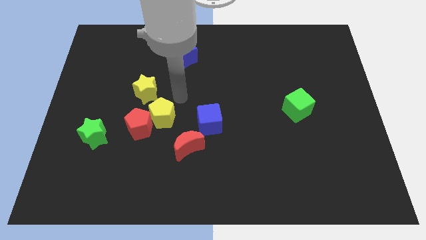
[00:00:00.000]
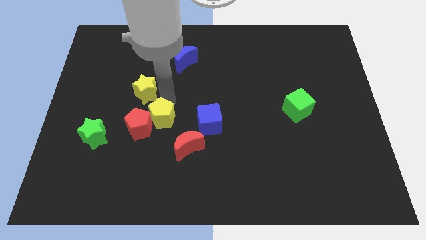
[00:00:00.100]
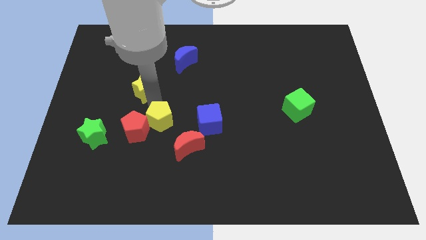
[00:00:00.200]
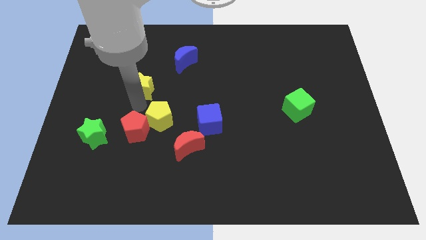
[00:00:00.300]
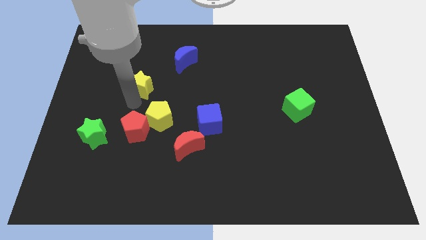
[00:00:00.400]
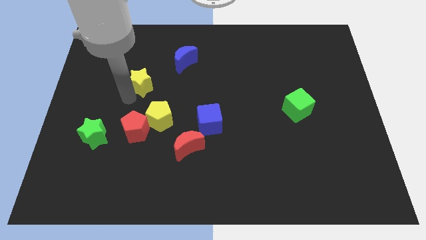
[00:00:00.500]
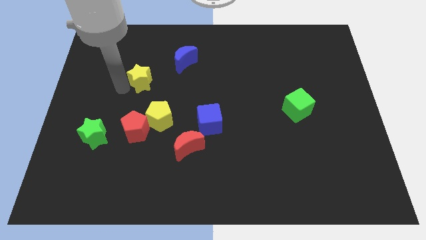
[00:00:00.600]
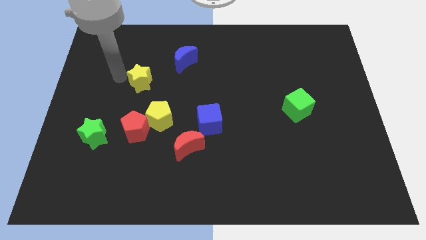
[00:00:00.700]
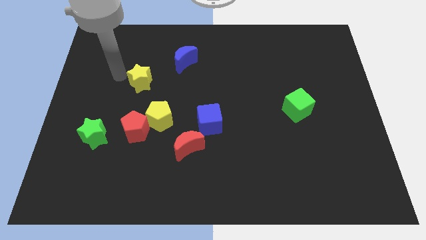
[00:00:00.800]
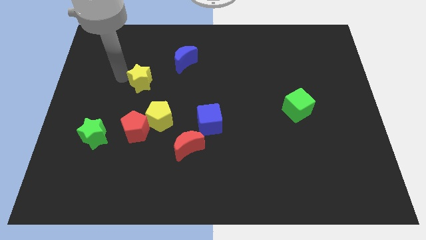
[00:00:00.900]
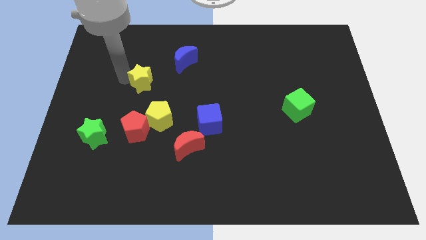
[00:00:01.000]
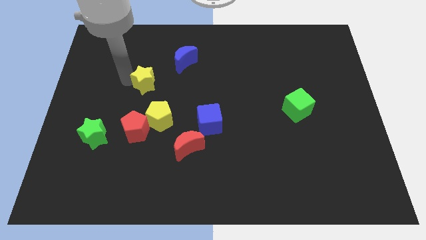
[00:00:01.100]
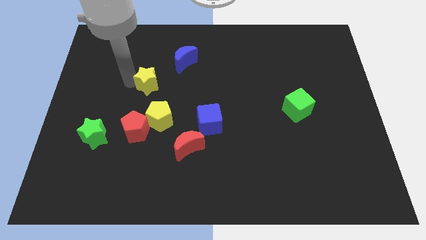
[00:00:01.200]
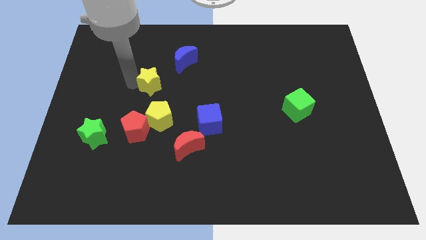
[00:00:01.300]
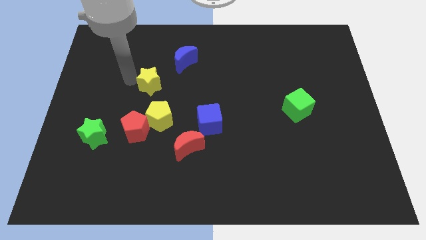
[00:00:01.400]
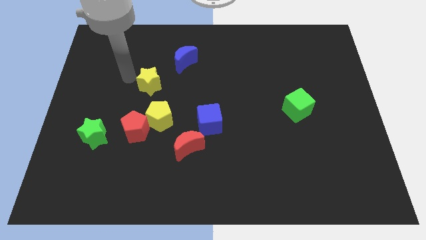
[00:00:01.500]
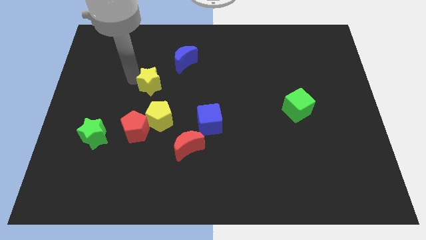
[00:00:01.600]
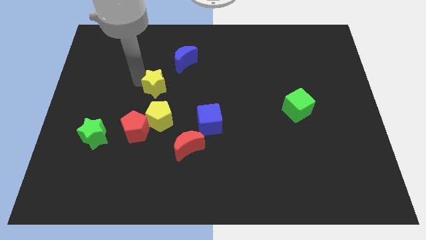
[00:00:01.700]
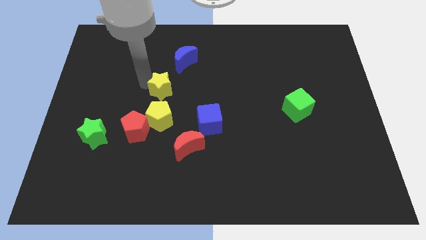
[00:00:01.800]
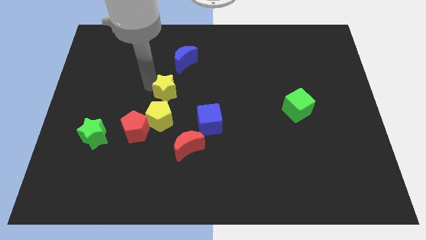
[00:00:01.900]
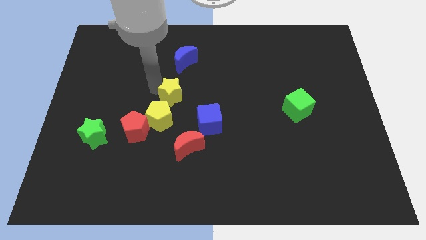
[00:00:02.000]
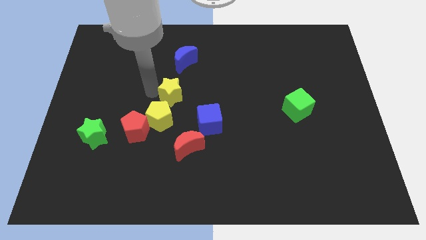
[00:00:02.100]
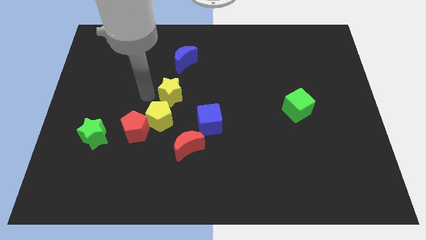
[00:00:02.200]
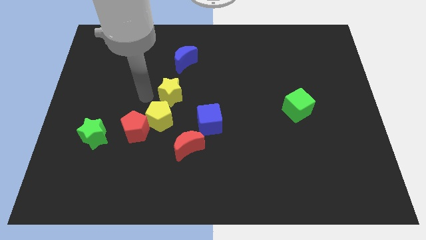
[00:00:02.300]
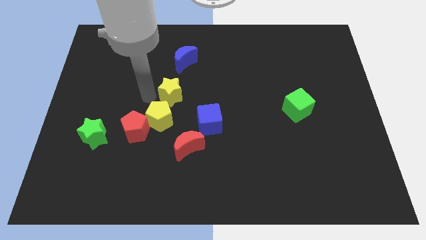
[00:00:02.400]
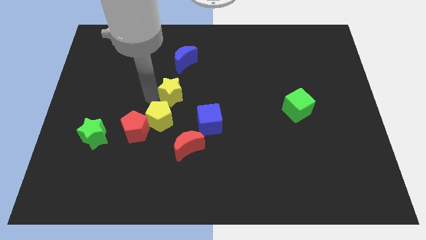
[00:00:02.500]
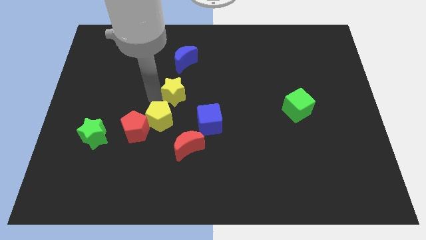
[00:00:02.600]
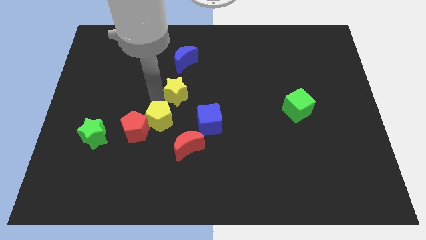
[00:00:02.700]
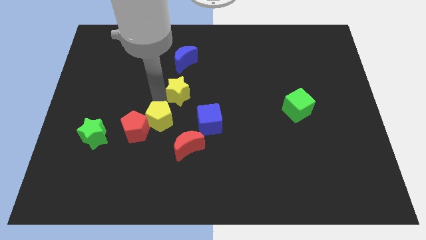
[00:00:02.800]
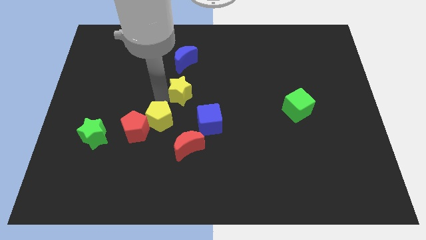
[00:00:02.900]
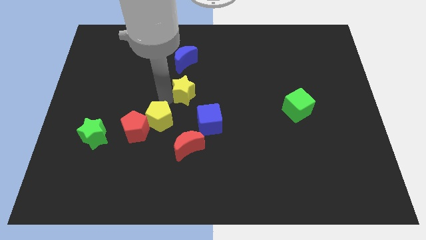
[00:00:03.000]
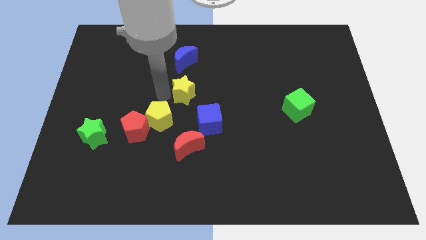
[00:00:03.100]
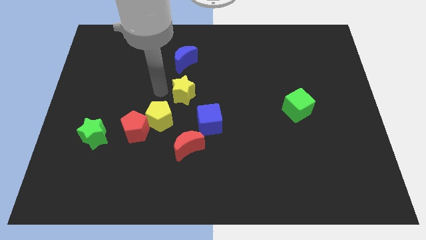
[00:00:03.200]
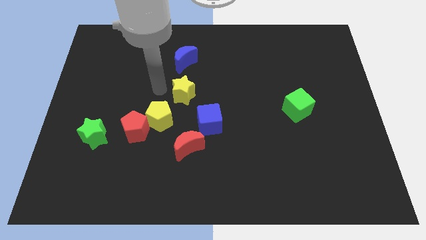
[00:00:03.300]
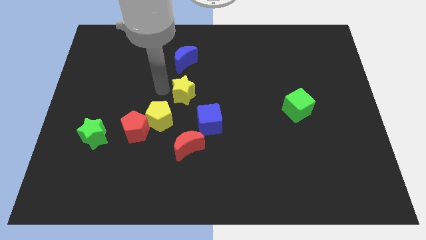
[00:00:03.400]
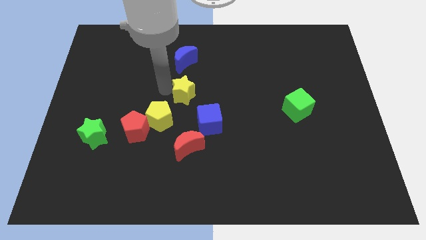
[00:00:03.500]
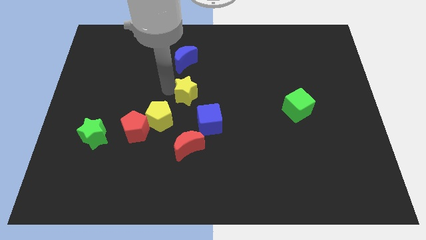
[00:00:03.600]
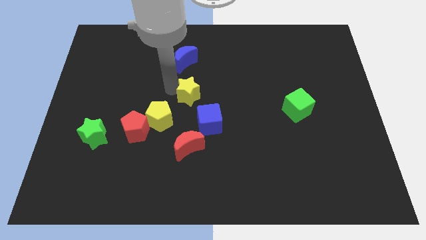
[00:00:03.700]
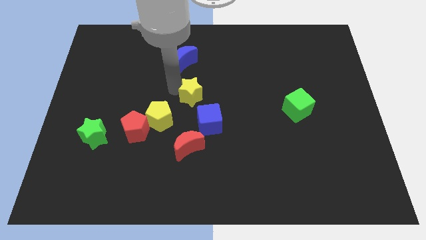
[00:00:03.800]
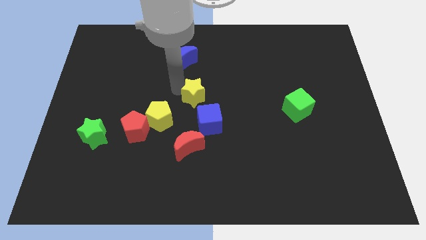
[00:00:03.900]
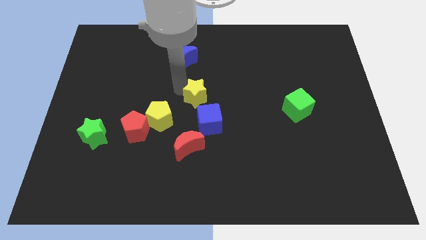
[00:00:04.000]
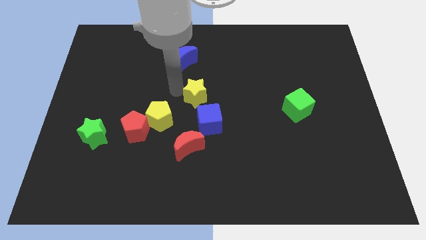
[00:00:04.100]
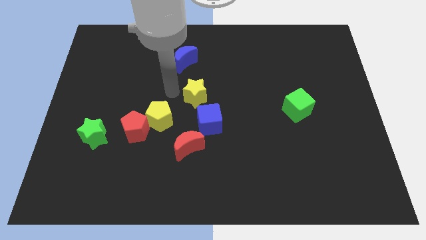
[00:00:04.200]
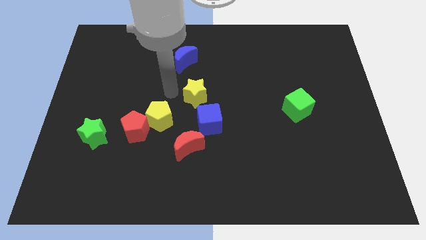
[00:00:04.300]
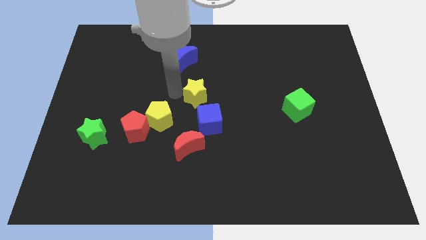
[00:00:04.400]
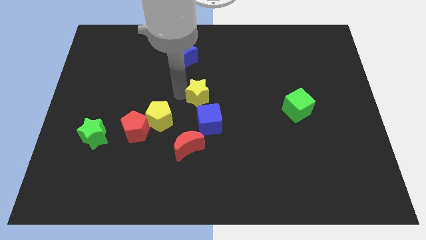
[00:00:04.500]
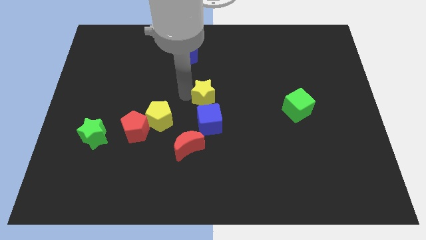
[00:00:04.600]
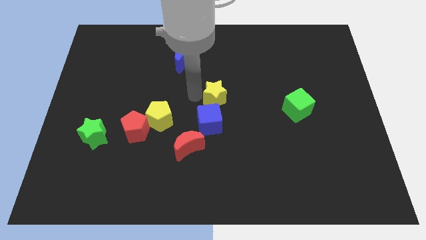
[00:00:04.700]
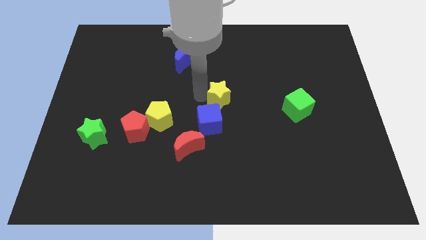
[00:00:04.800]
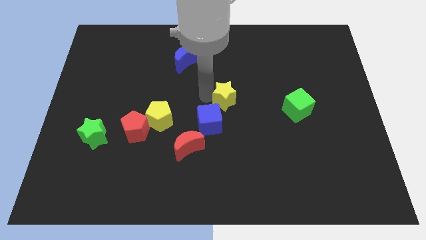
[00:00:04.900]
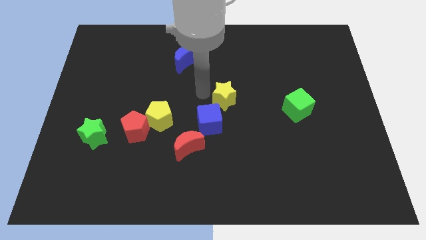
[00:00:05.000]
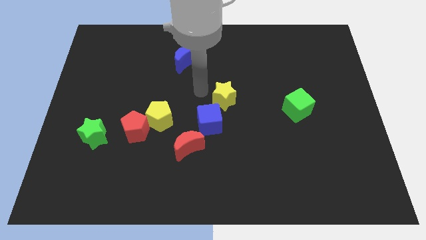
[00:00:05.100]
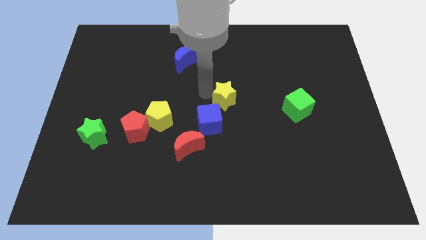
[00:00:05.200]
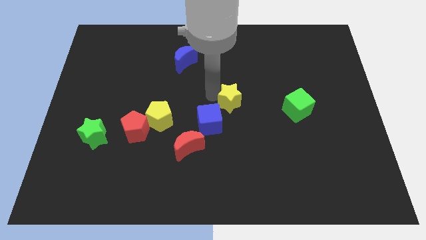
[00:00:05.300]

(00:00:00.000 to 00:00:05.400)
slide the yellow star to the left of the green cube

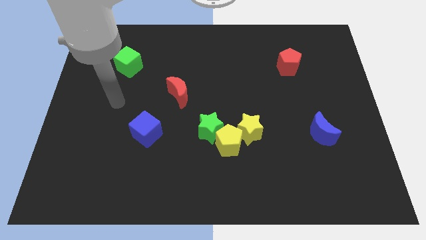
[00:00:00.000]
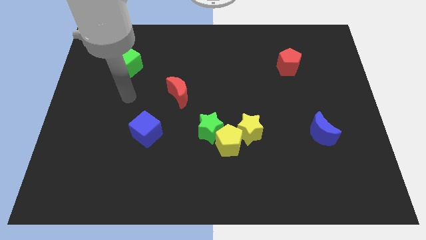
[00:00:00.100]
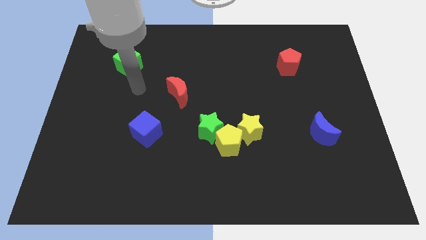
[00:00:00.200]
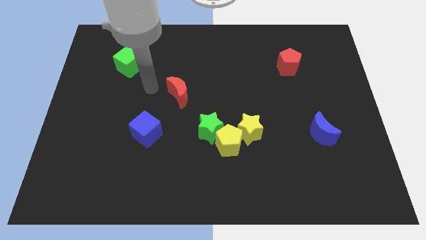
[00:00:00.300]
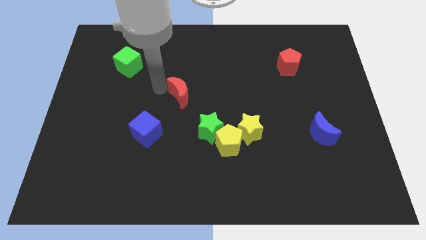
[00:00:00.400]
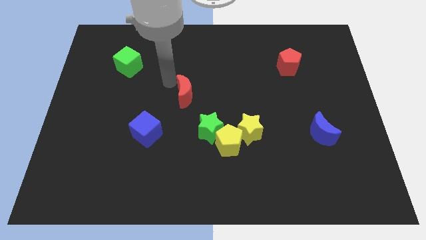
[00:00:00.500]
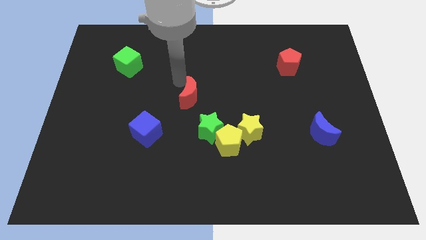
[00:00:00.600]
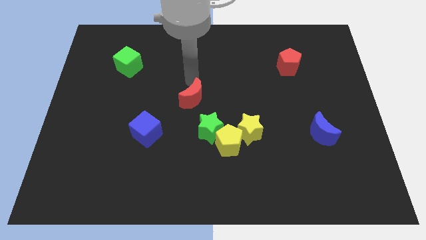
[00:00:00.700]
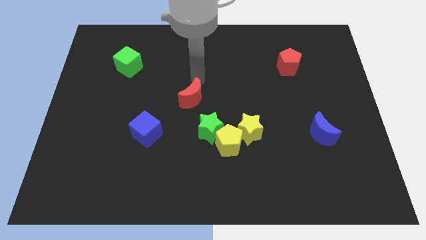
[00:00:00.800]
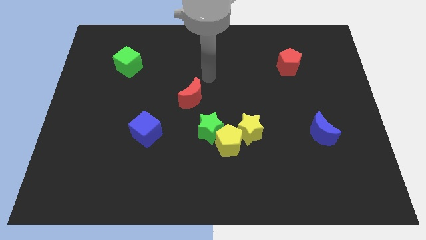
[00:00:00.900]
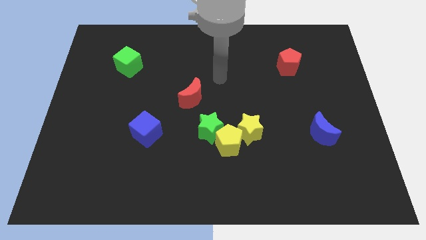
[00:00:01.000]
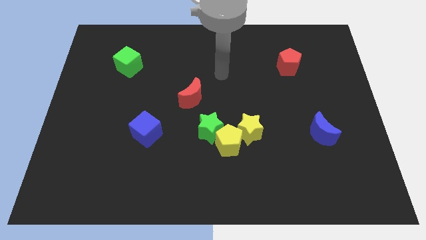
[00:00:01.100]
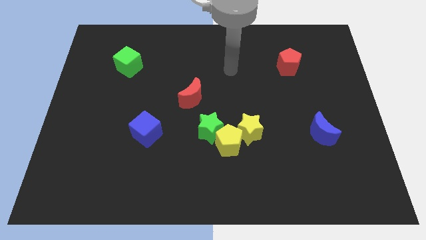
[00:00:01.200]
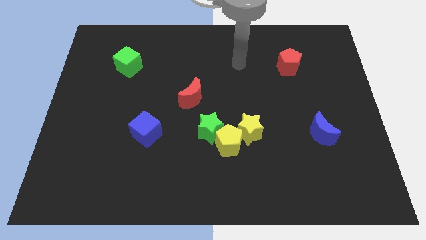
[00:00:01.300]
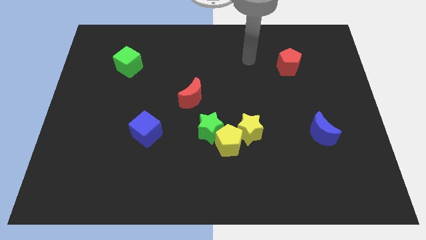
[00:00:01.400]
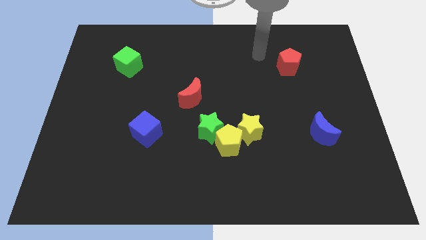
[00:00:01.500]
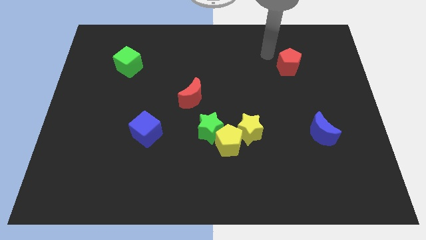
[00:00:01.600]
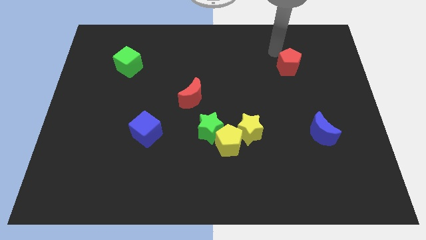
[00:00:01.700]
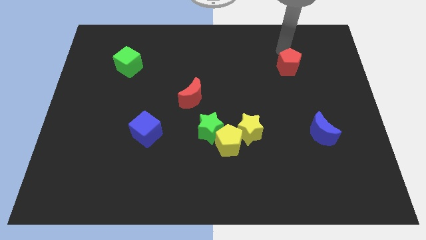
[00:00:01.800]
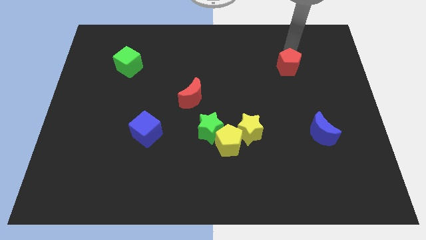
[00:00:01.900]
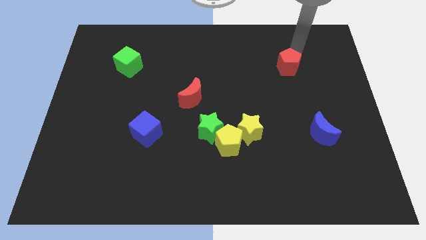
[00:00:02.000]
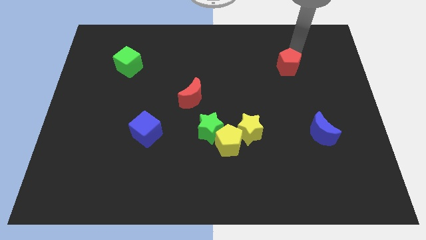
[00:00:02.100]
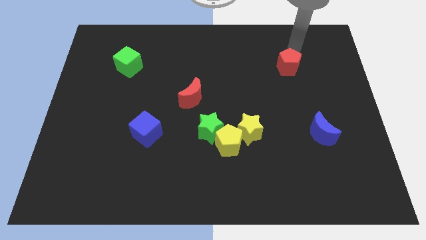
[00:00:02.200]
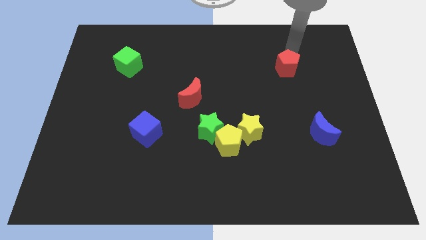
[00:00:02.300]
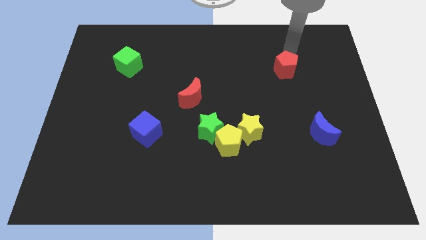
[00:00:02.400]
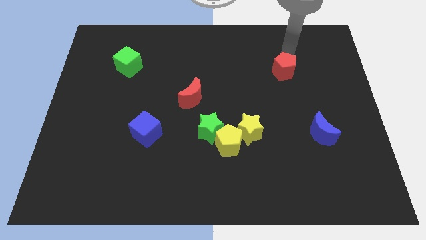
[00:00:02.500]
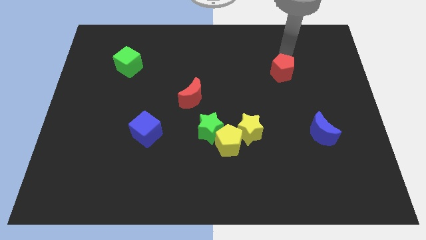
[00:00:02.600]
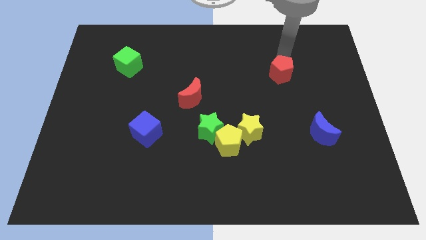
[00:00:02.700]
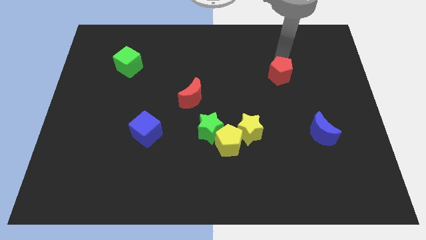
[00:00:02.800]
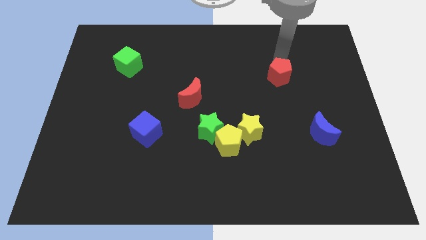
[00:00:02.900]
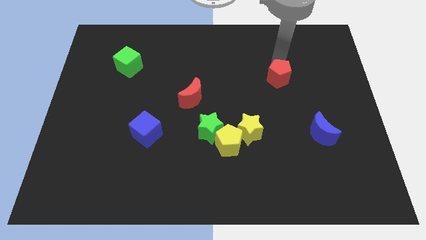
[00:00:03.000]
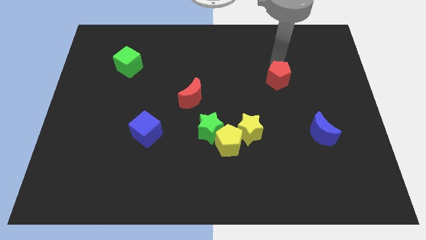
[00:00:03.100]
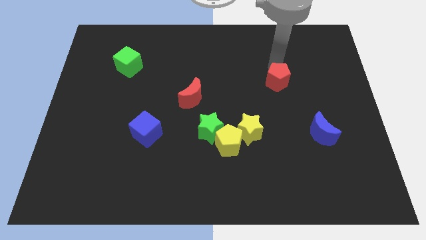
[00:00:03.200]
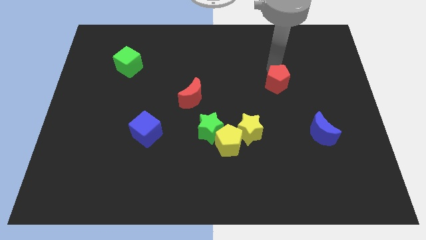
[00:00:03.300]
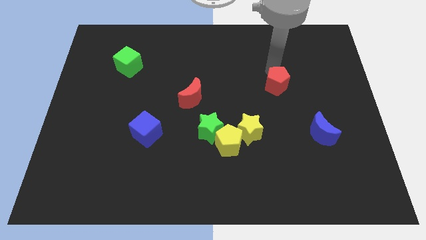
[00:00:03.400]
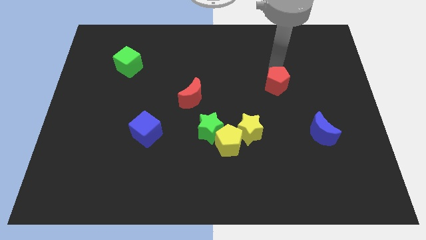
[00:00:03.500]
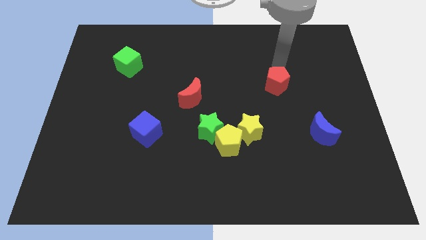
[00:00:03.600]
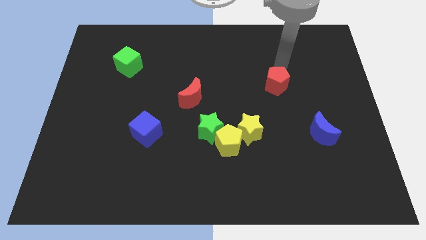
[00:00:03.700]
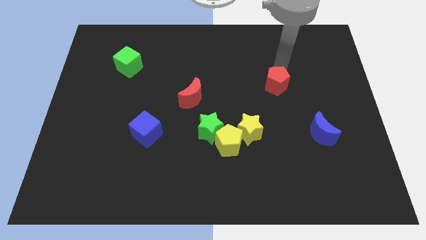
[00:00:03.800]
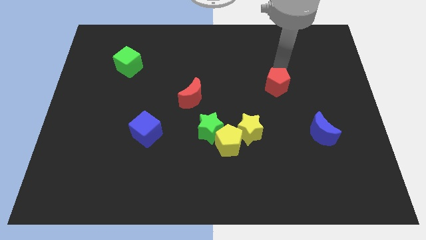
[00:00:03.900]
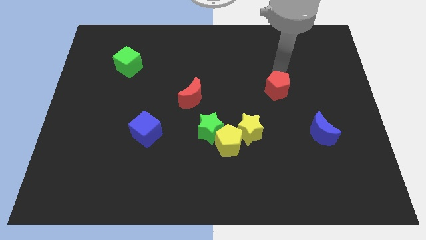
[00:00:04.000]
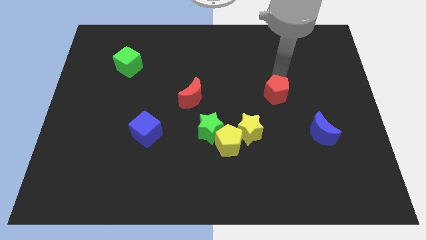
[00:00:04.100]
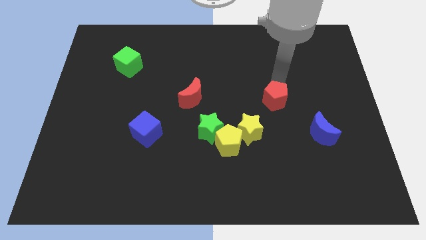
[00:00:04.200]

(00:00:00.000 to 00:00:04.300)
put the red pentagon to the top right of the yellow star
